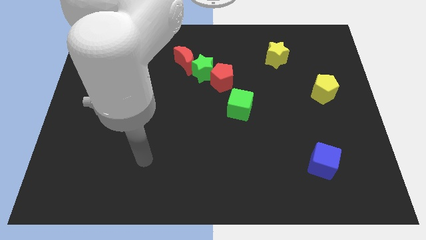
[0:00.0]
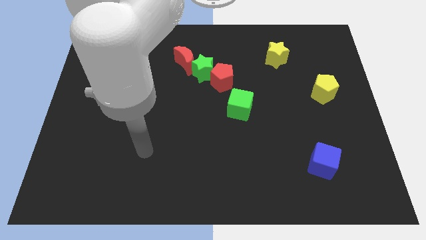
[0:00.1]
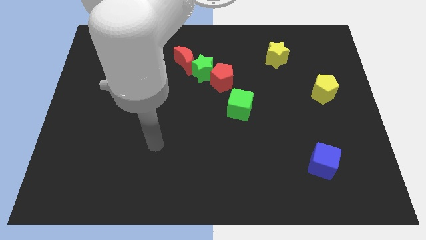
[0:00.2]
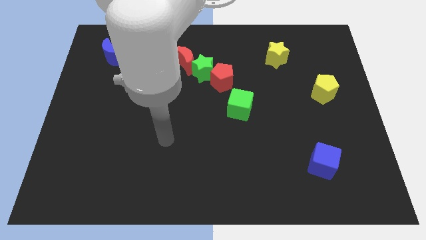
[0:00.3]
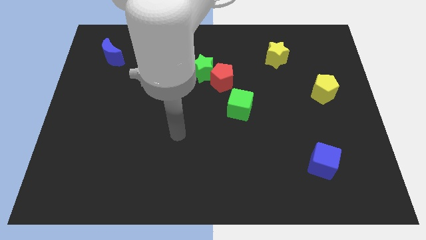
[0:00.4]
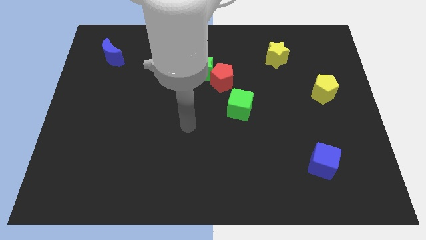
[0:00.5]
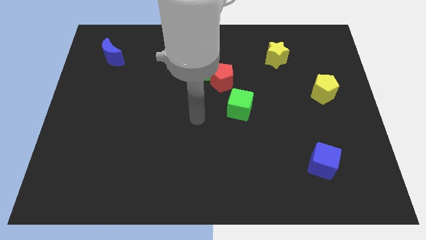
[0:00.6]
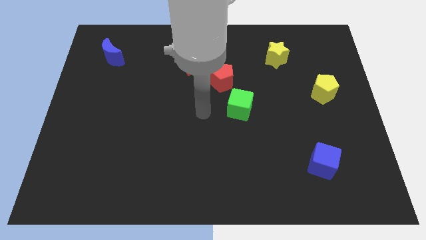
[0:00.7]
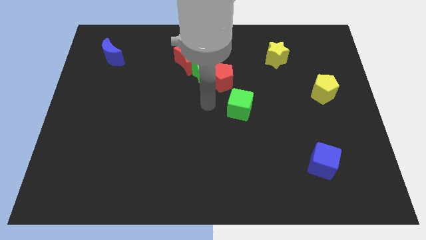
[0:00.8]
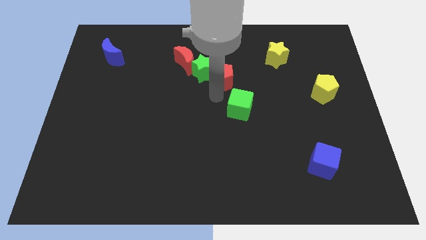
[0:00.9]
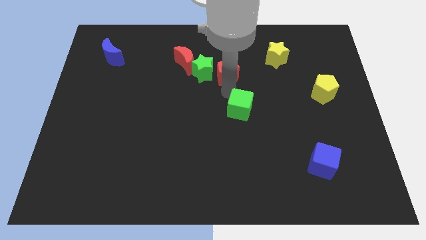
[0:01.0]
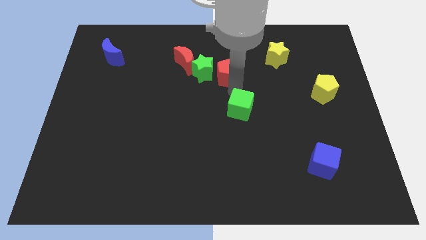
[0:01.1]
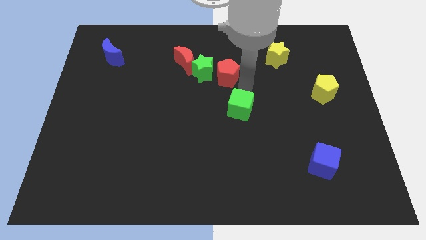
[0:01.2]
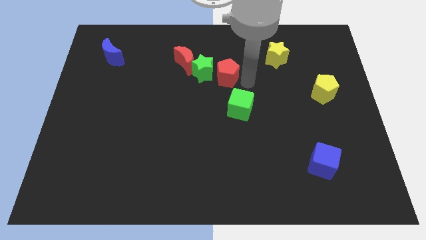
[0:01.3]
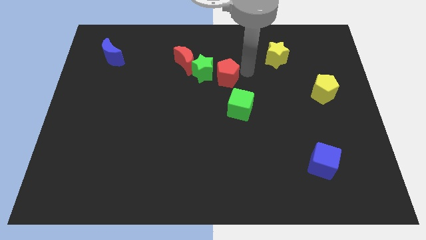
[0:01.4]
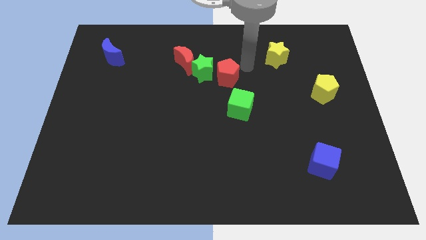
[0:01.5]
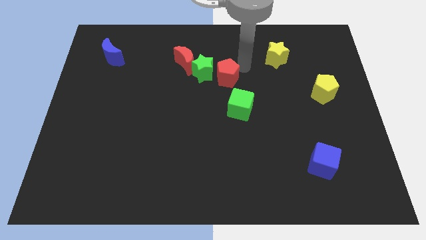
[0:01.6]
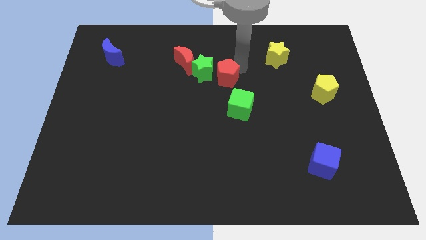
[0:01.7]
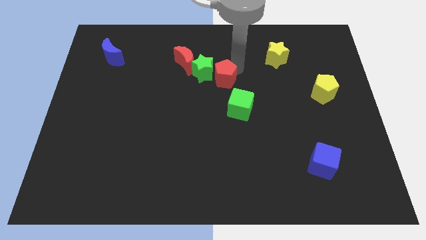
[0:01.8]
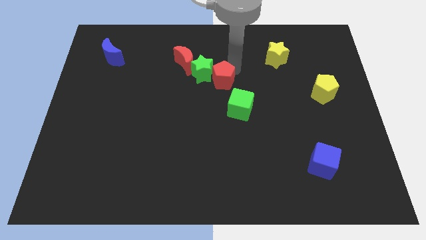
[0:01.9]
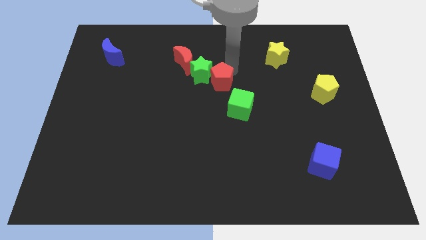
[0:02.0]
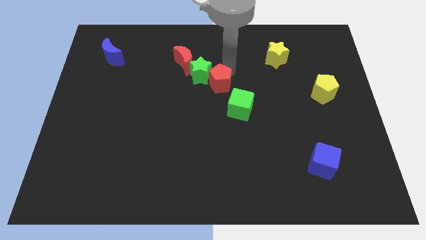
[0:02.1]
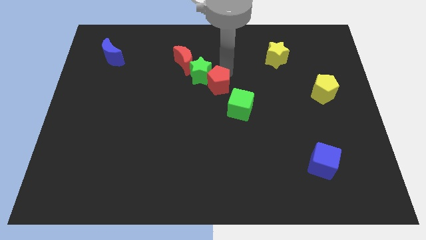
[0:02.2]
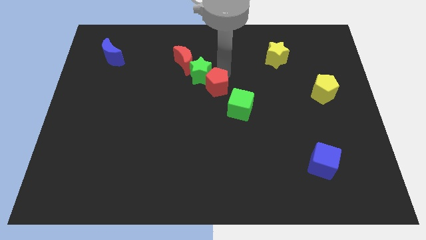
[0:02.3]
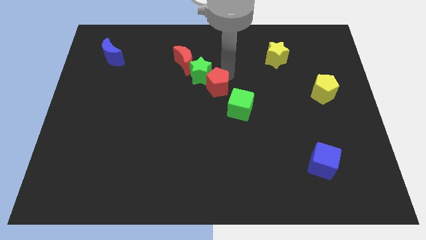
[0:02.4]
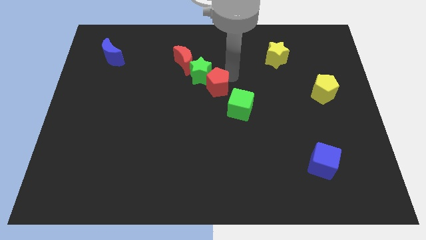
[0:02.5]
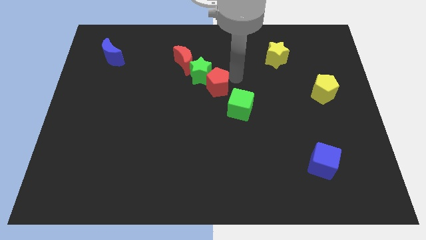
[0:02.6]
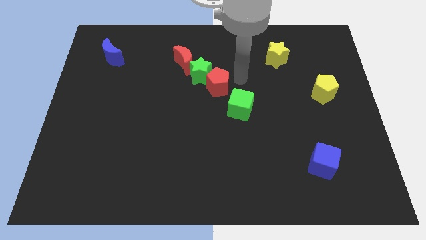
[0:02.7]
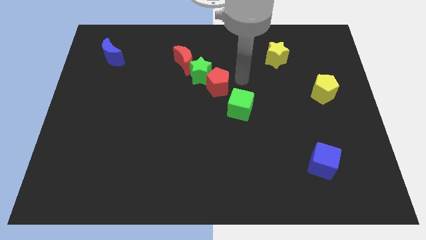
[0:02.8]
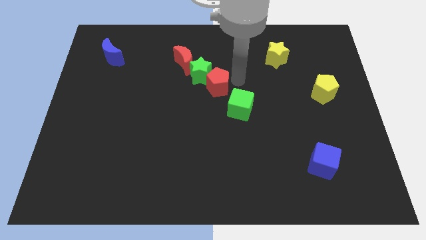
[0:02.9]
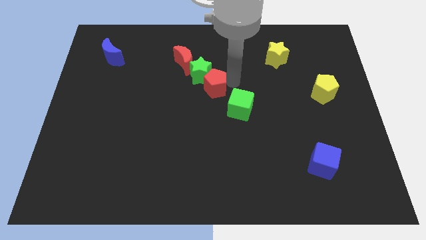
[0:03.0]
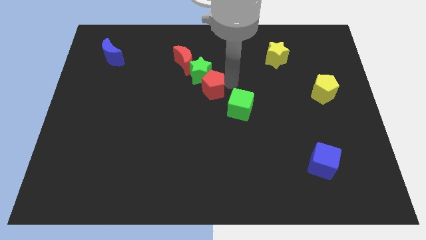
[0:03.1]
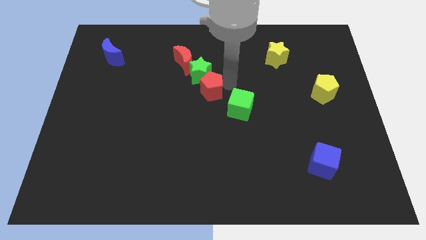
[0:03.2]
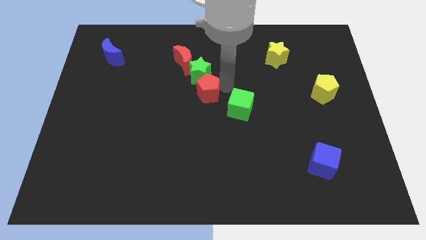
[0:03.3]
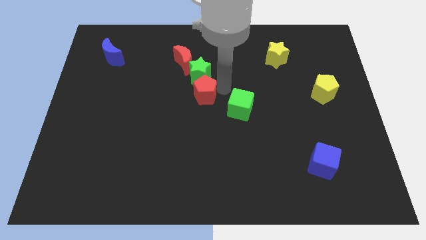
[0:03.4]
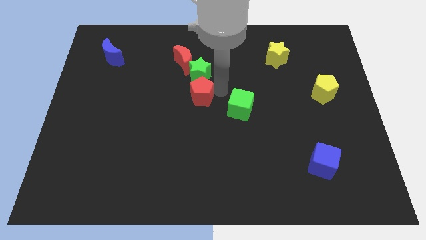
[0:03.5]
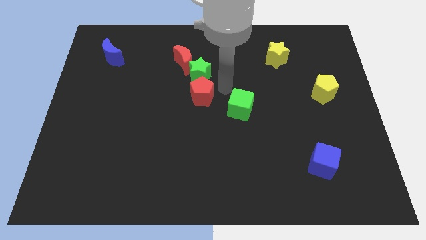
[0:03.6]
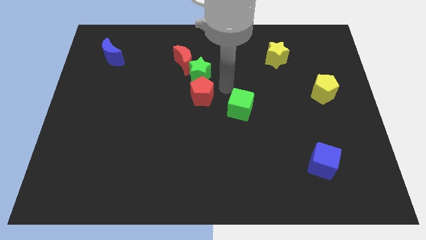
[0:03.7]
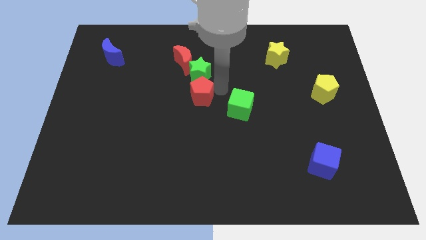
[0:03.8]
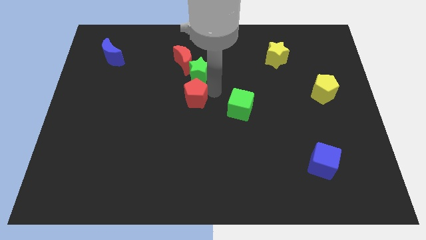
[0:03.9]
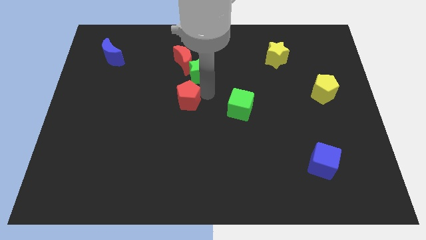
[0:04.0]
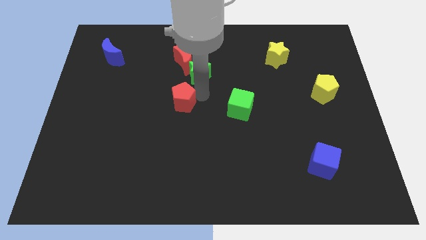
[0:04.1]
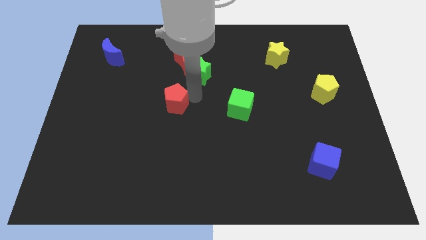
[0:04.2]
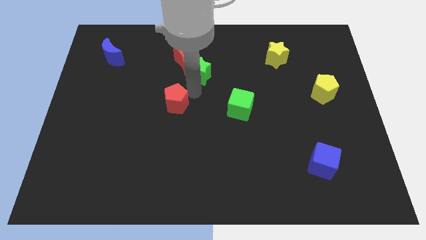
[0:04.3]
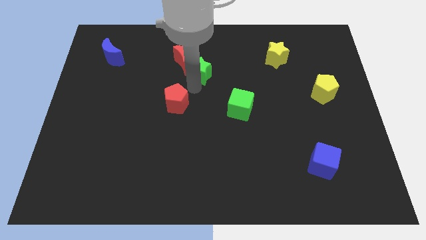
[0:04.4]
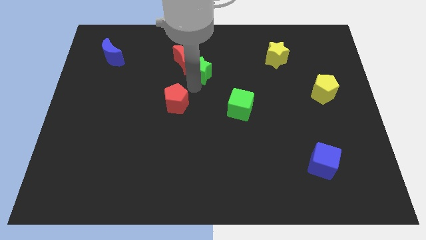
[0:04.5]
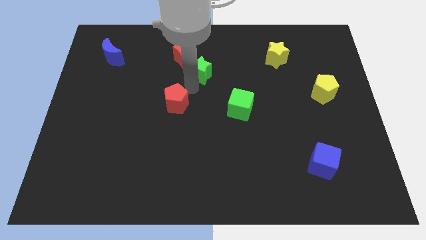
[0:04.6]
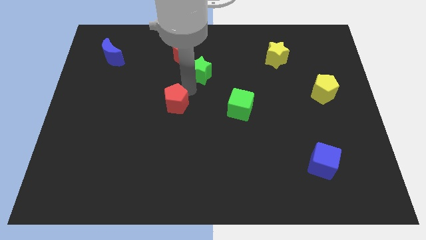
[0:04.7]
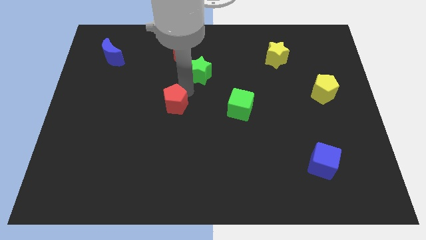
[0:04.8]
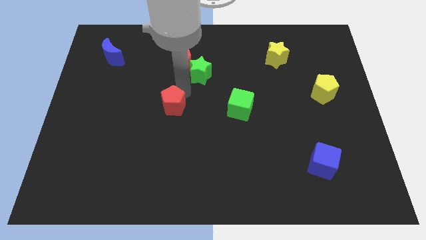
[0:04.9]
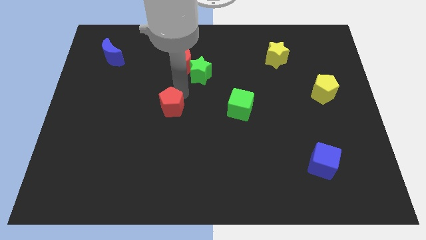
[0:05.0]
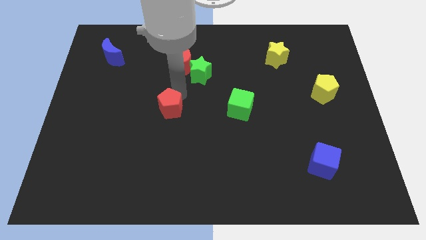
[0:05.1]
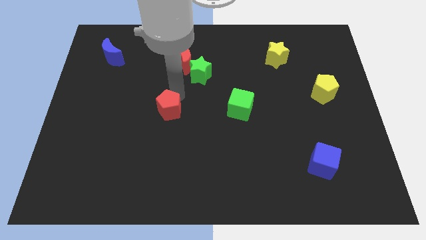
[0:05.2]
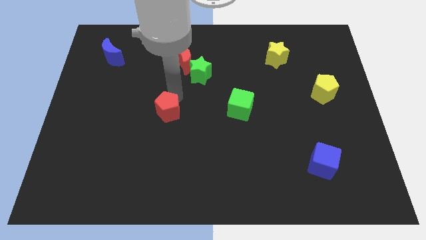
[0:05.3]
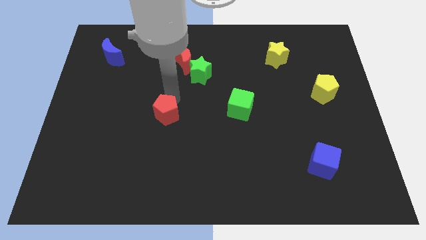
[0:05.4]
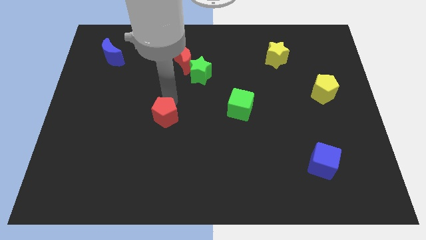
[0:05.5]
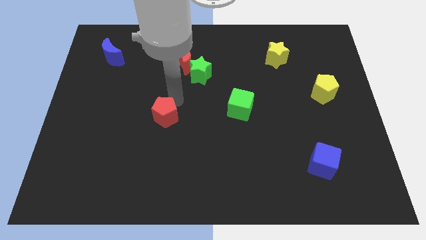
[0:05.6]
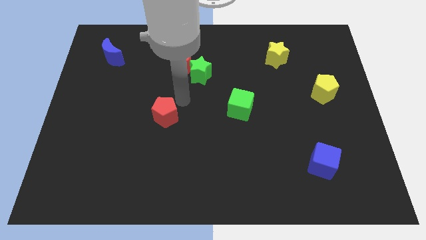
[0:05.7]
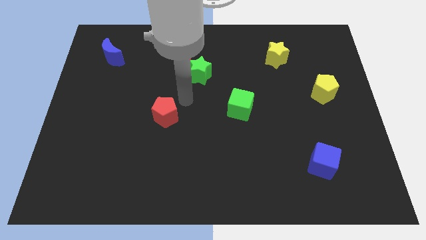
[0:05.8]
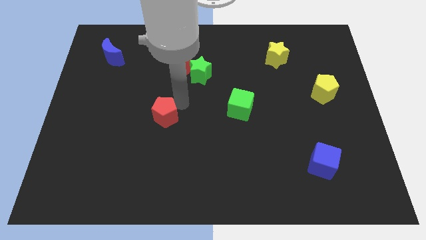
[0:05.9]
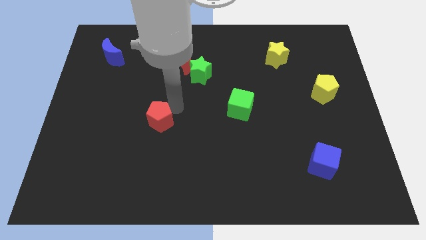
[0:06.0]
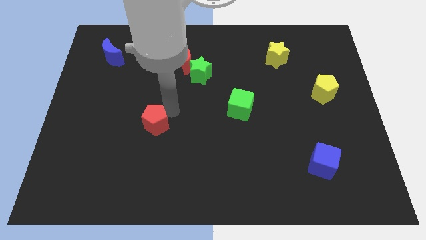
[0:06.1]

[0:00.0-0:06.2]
move the red pentagon downwards and to the left diagonally

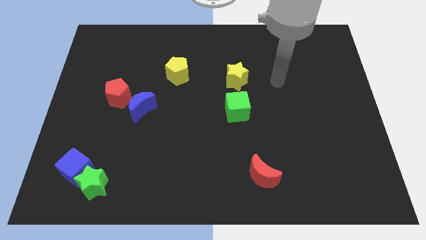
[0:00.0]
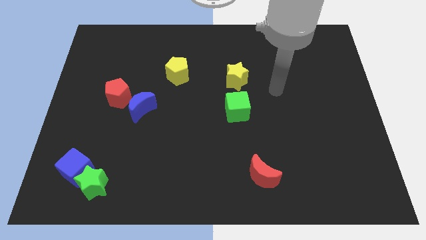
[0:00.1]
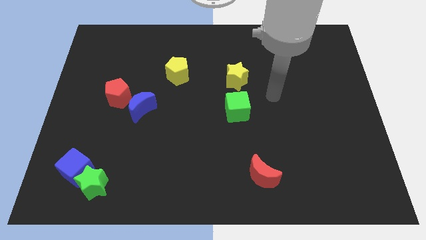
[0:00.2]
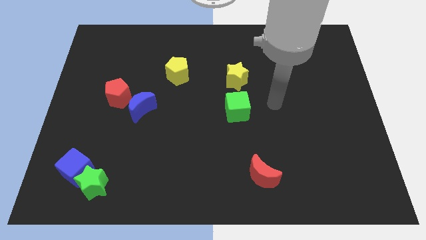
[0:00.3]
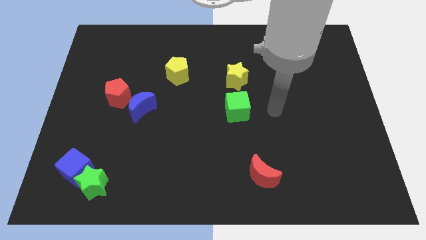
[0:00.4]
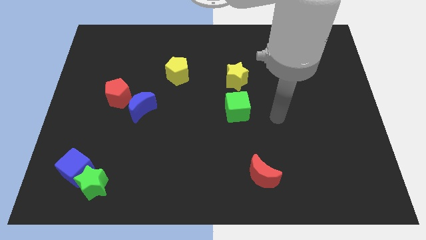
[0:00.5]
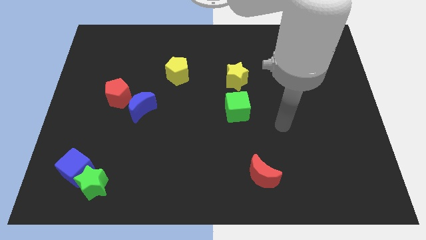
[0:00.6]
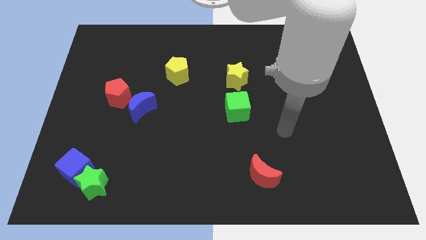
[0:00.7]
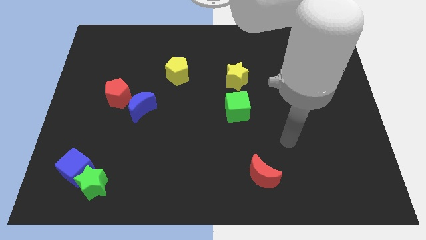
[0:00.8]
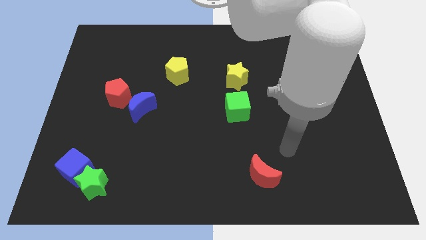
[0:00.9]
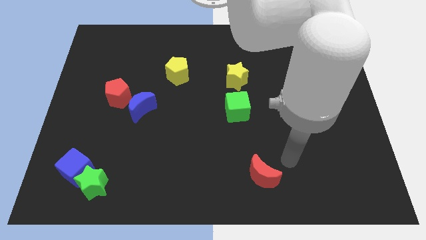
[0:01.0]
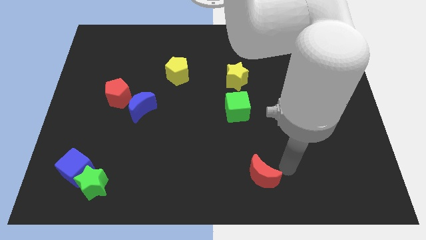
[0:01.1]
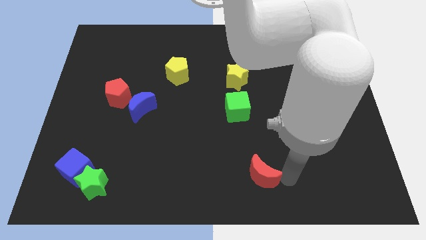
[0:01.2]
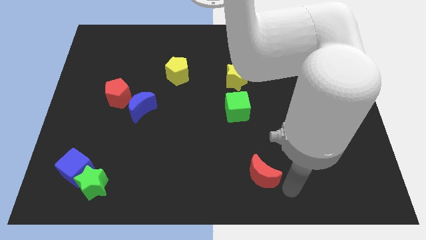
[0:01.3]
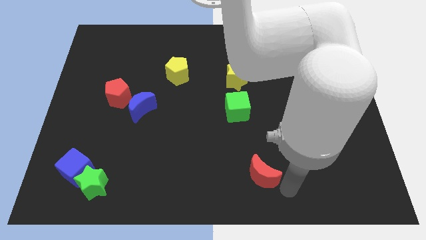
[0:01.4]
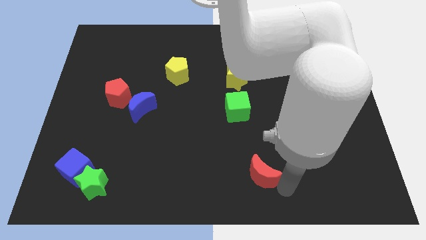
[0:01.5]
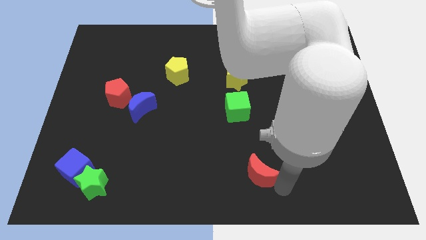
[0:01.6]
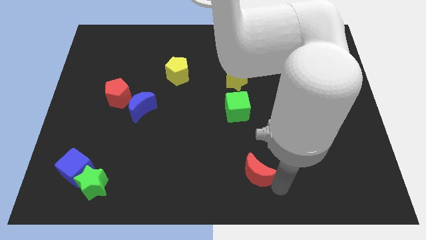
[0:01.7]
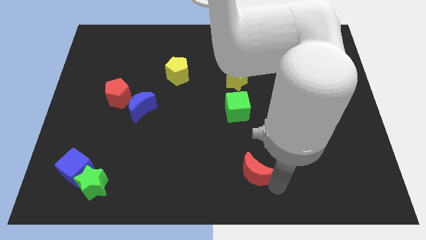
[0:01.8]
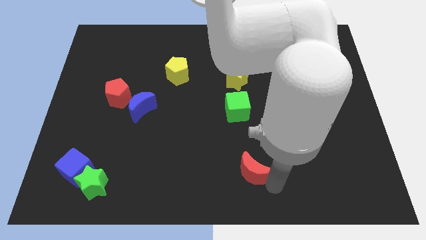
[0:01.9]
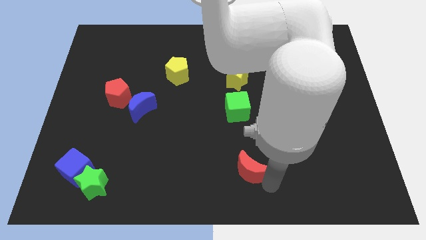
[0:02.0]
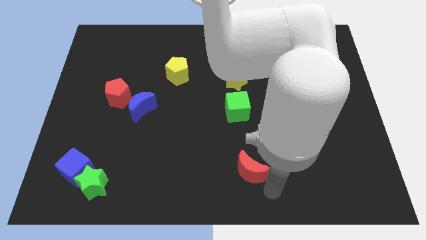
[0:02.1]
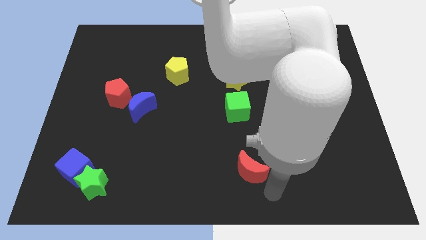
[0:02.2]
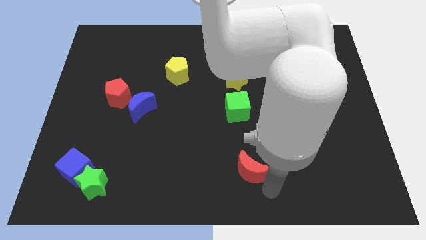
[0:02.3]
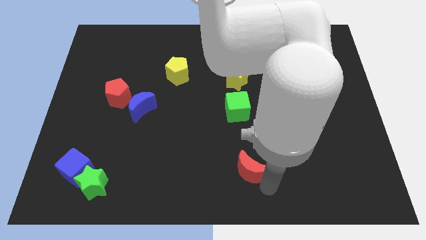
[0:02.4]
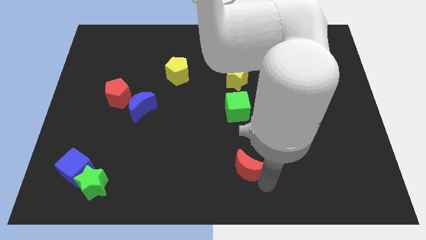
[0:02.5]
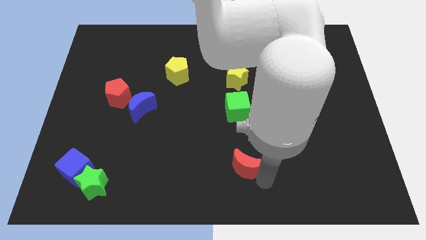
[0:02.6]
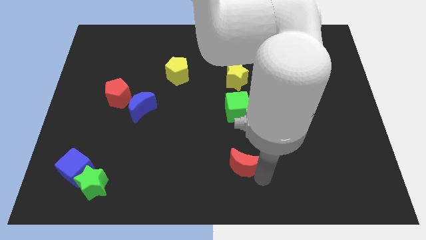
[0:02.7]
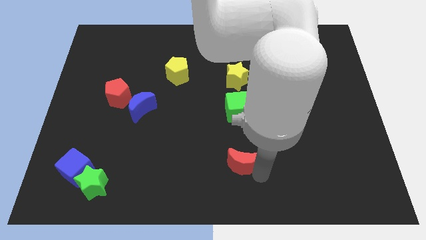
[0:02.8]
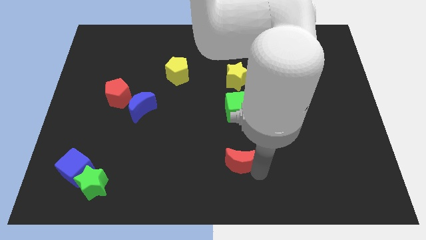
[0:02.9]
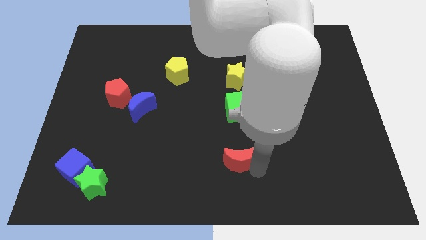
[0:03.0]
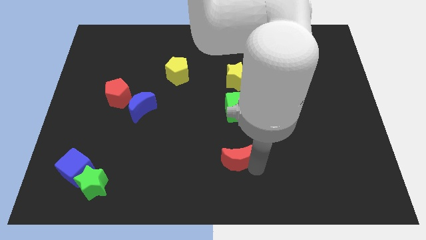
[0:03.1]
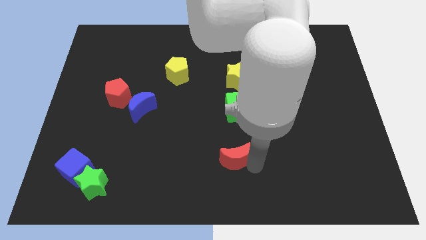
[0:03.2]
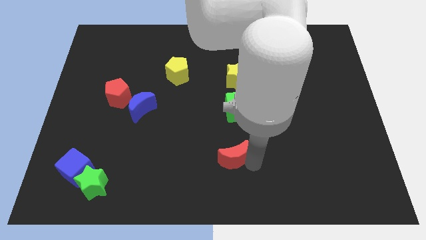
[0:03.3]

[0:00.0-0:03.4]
slightly push the red moon up and to the left diagonally
